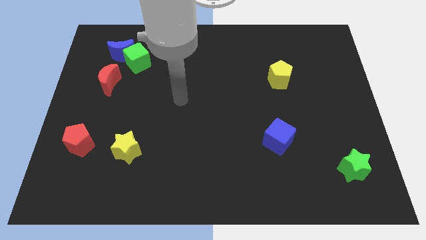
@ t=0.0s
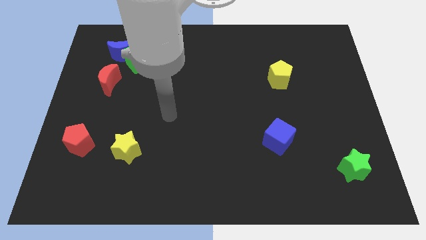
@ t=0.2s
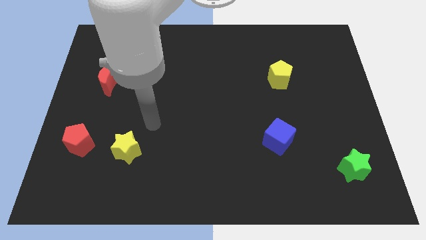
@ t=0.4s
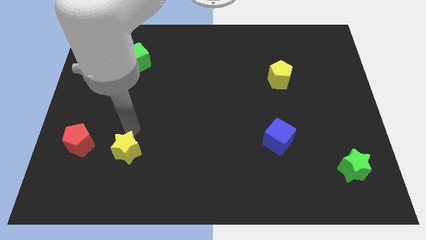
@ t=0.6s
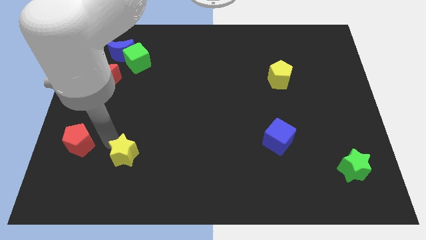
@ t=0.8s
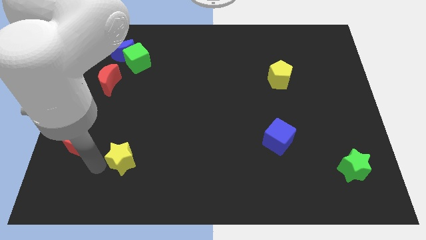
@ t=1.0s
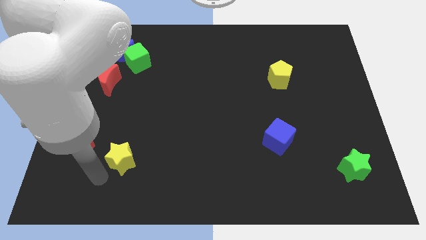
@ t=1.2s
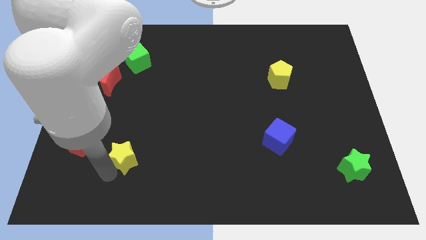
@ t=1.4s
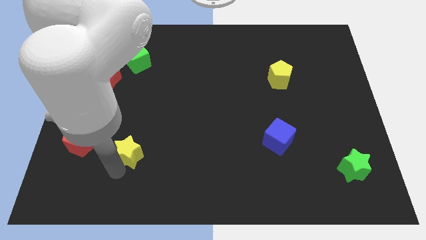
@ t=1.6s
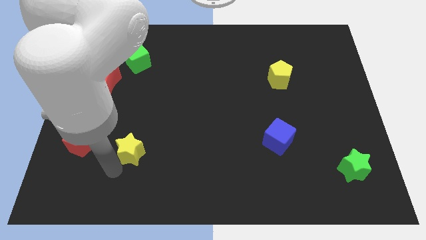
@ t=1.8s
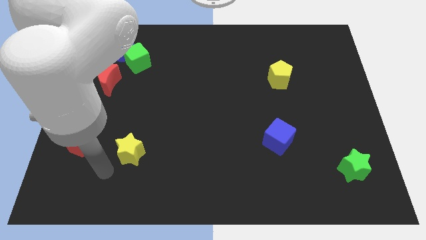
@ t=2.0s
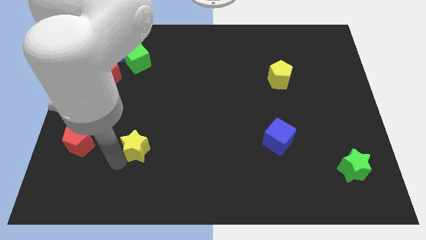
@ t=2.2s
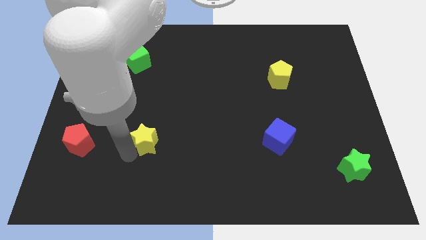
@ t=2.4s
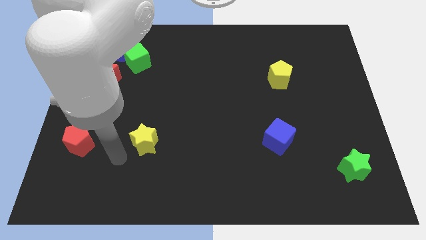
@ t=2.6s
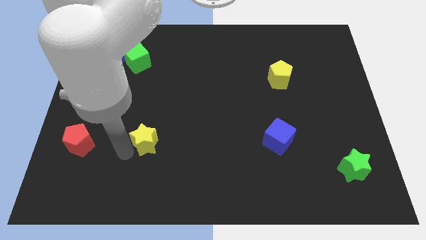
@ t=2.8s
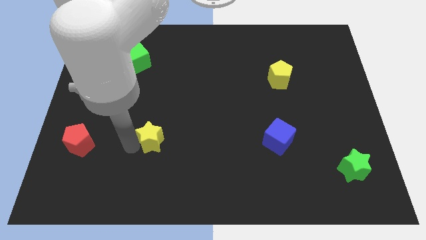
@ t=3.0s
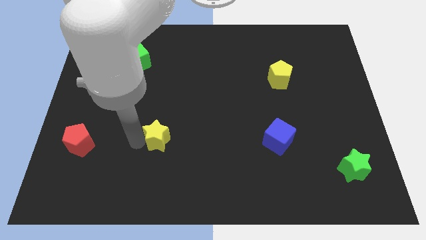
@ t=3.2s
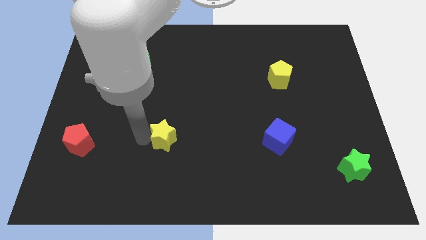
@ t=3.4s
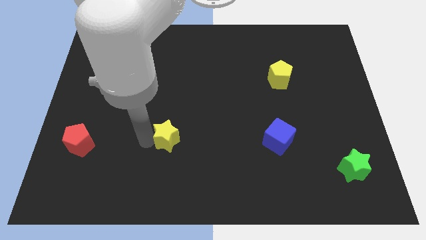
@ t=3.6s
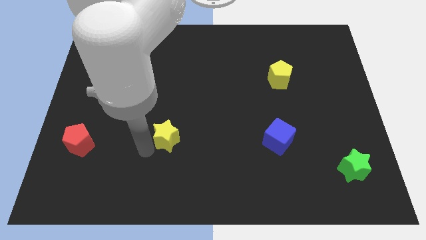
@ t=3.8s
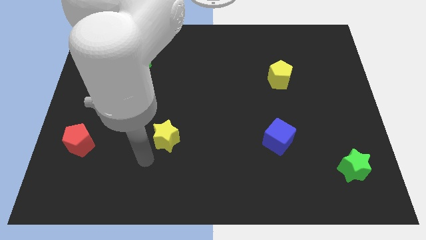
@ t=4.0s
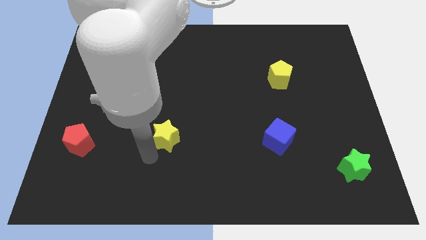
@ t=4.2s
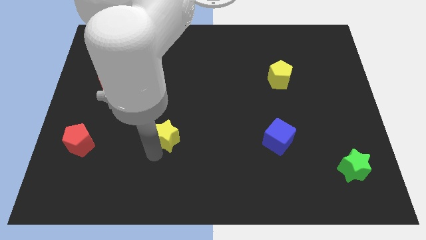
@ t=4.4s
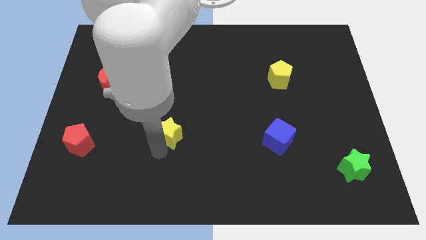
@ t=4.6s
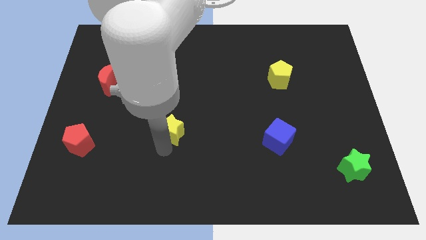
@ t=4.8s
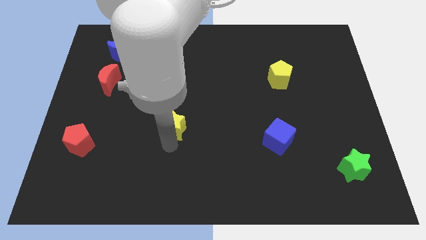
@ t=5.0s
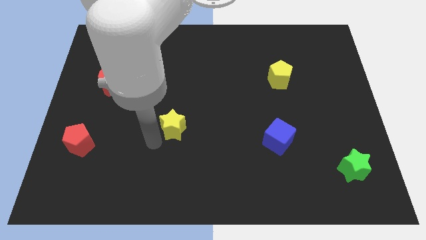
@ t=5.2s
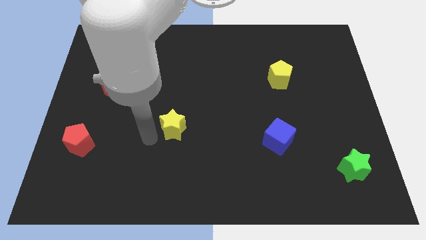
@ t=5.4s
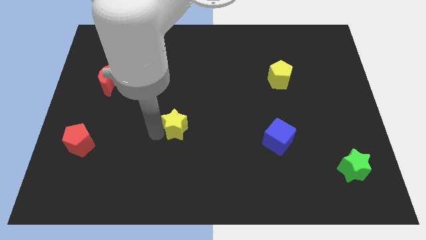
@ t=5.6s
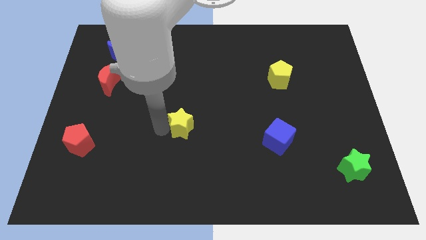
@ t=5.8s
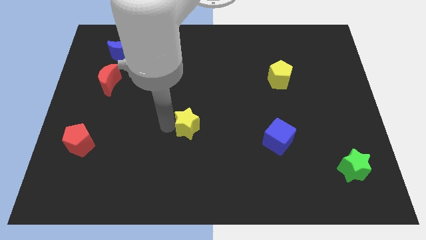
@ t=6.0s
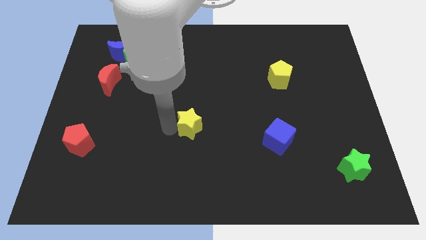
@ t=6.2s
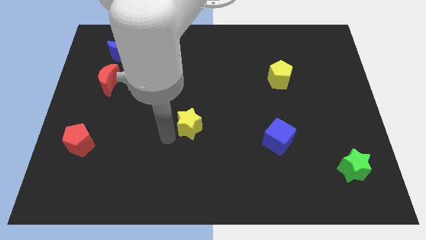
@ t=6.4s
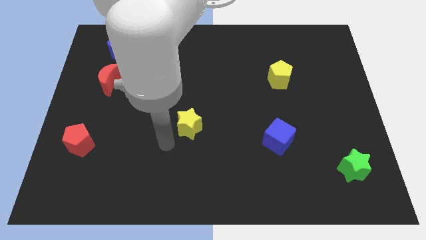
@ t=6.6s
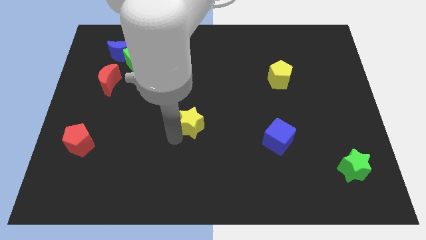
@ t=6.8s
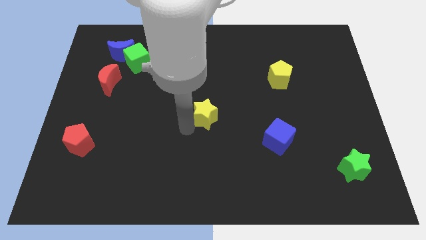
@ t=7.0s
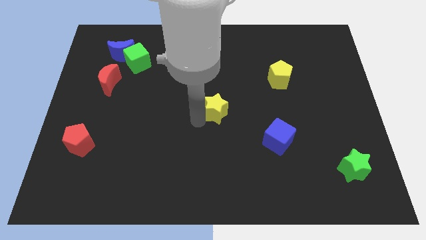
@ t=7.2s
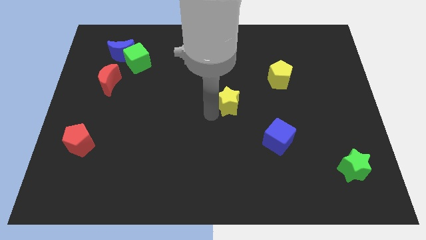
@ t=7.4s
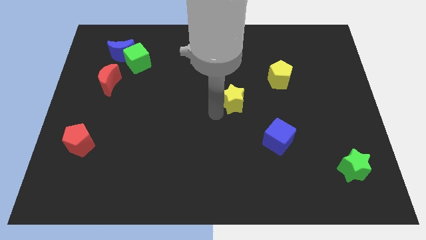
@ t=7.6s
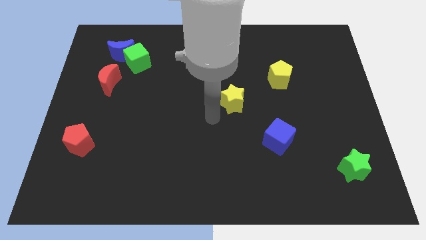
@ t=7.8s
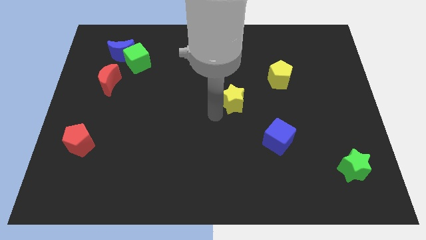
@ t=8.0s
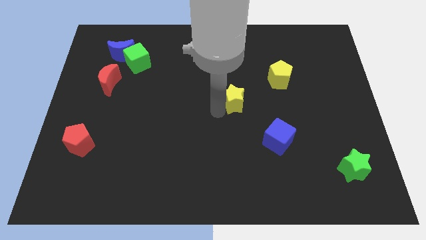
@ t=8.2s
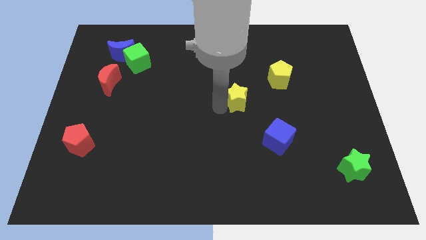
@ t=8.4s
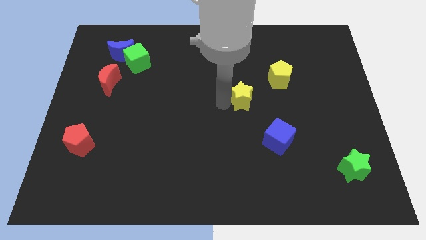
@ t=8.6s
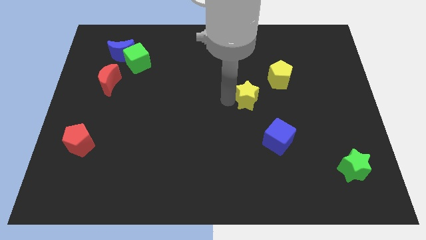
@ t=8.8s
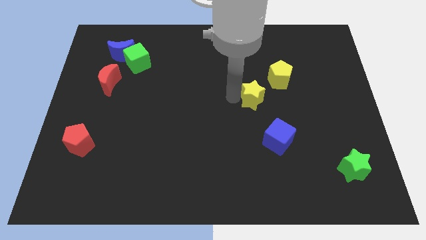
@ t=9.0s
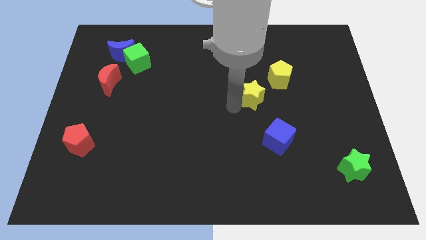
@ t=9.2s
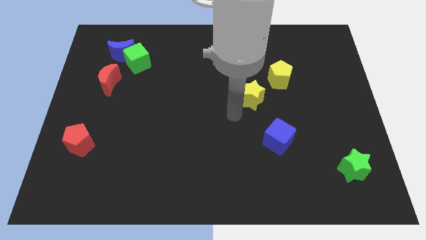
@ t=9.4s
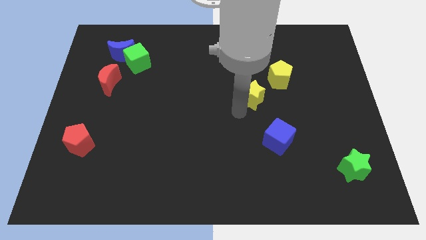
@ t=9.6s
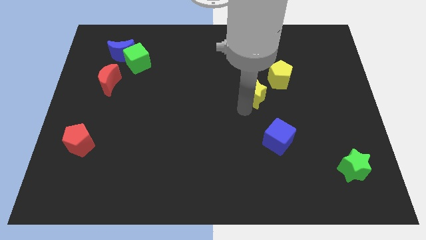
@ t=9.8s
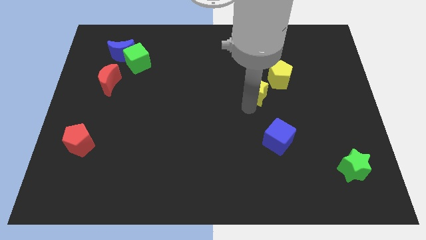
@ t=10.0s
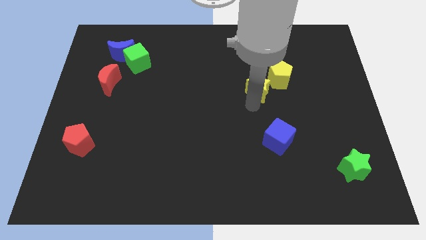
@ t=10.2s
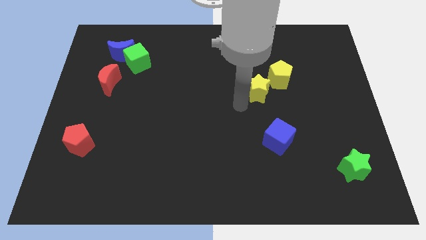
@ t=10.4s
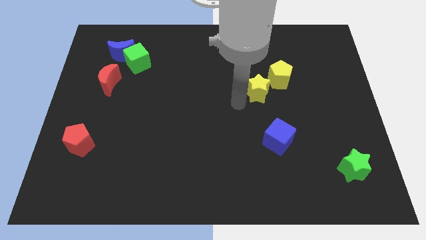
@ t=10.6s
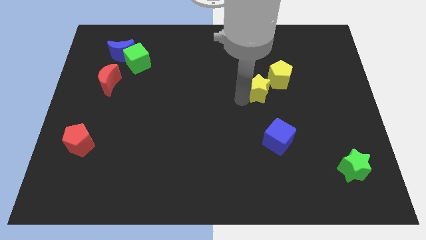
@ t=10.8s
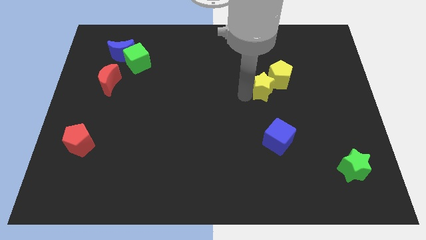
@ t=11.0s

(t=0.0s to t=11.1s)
push the yellow star close to the yellow pentagon
